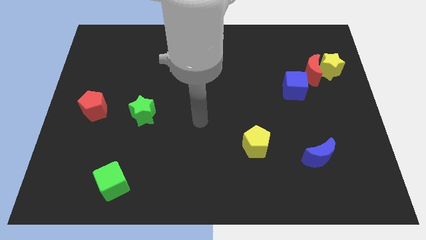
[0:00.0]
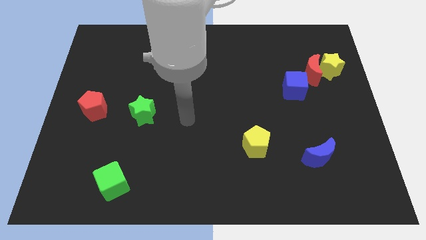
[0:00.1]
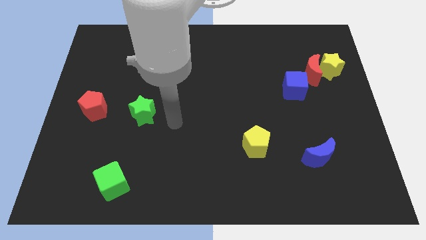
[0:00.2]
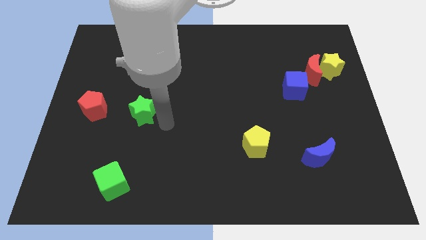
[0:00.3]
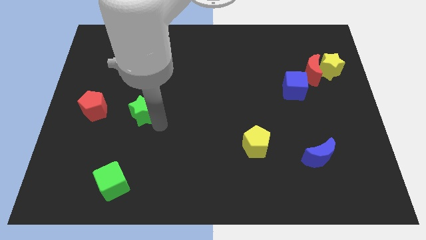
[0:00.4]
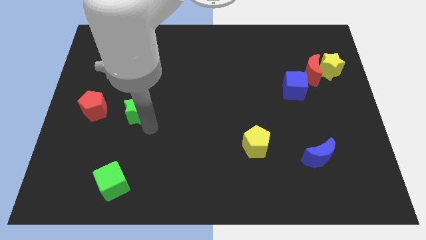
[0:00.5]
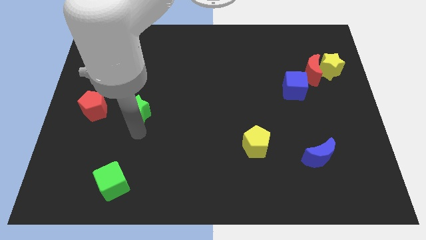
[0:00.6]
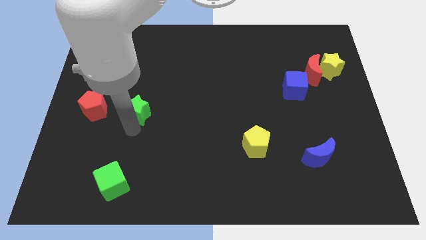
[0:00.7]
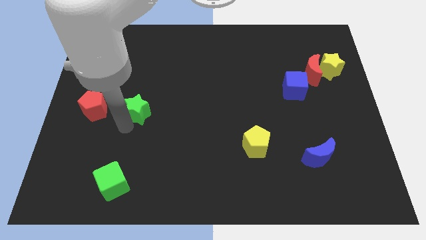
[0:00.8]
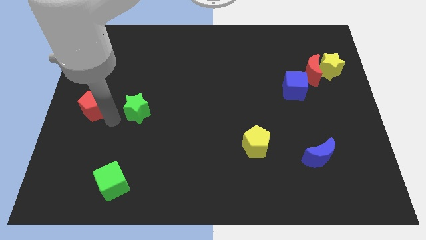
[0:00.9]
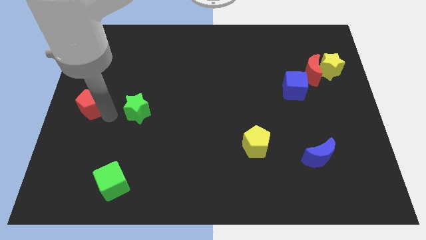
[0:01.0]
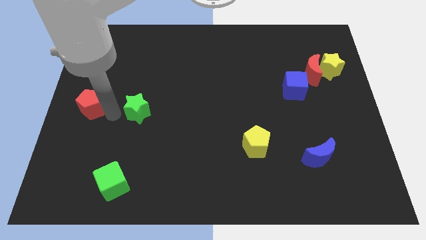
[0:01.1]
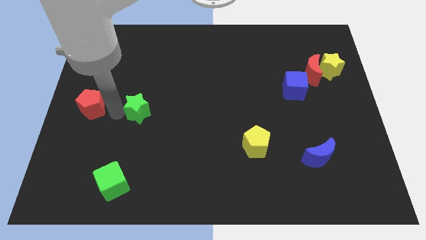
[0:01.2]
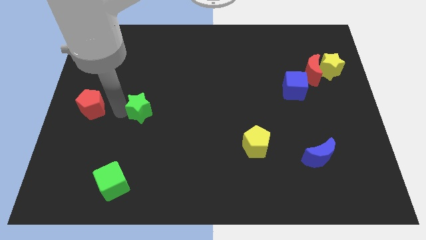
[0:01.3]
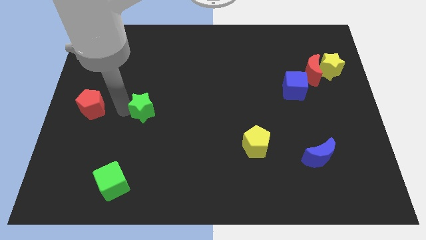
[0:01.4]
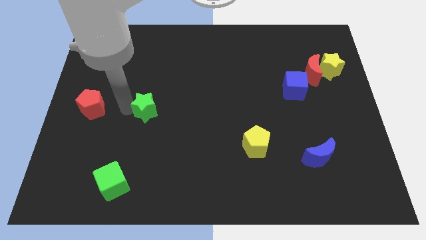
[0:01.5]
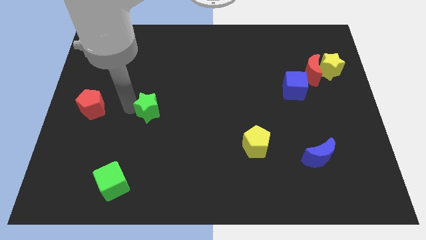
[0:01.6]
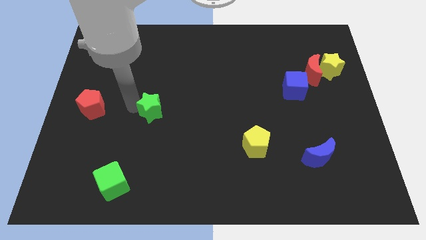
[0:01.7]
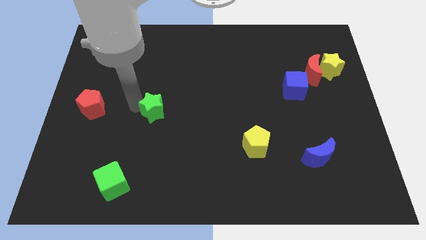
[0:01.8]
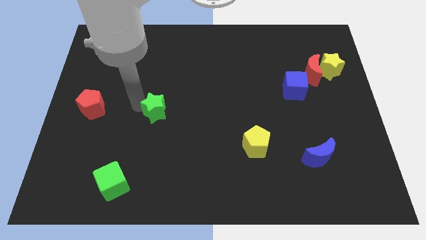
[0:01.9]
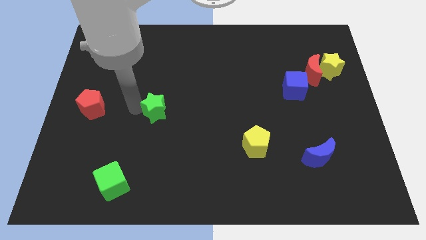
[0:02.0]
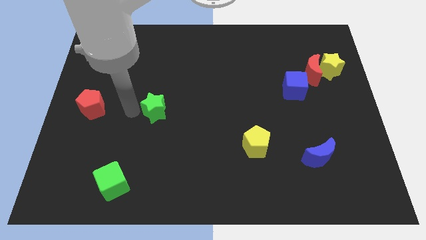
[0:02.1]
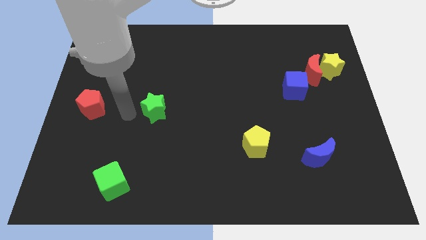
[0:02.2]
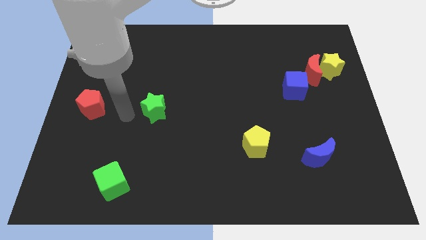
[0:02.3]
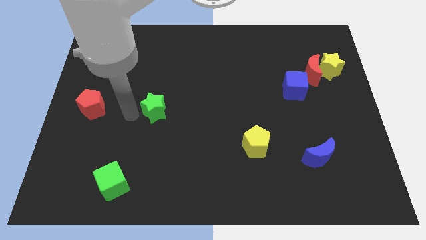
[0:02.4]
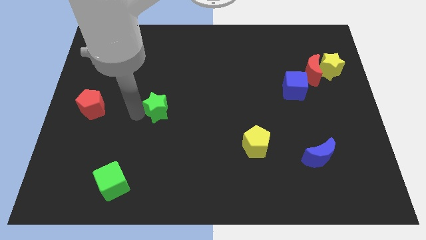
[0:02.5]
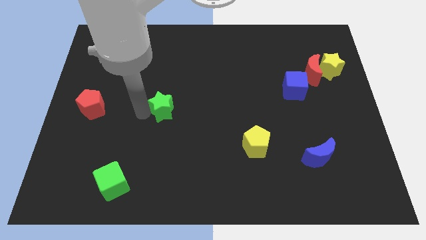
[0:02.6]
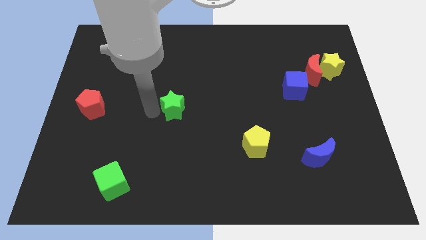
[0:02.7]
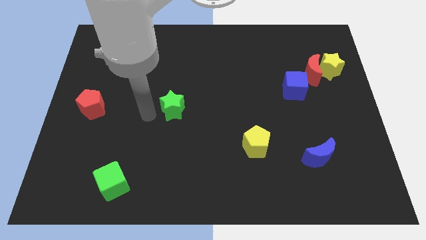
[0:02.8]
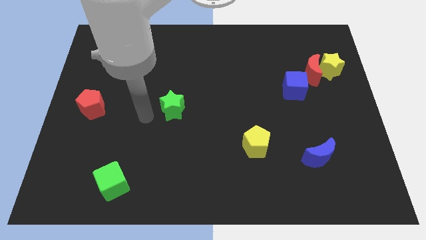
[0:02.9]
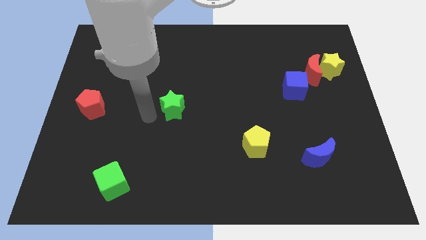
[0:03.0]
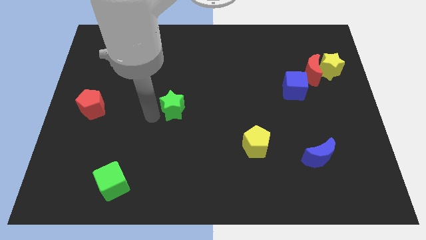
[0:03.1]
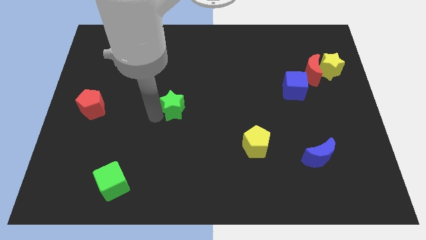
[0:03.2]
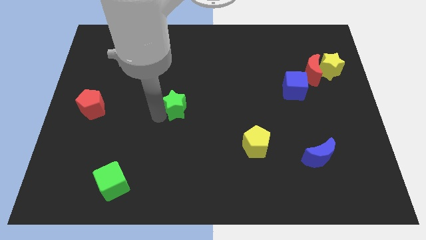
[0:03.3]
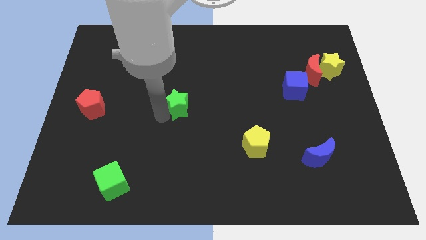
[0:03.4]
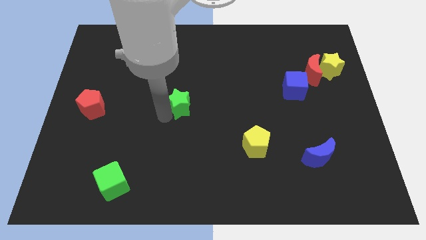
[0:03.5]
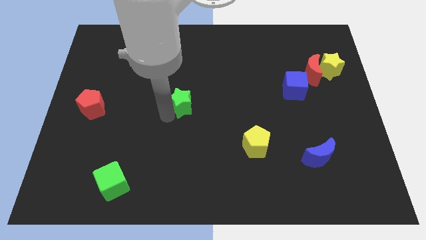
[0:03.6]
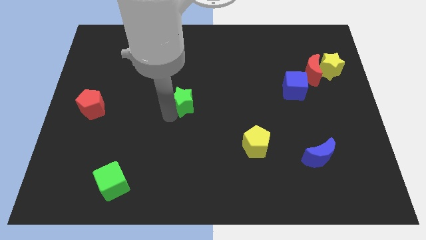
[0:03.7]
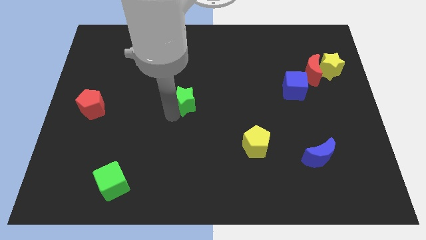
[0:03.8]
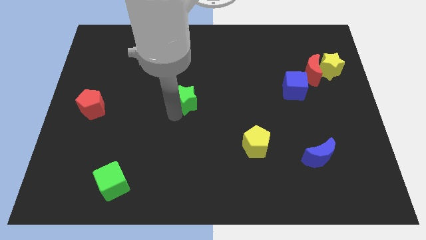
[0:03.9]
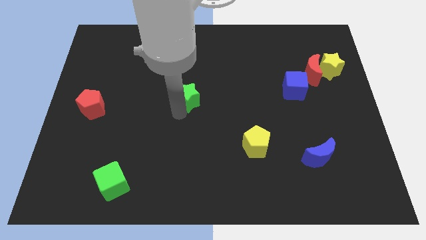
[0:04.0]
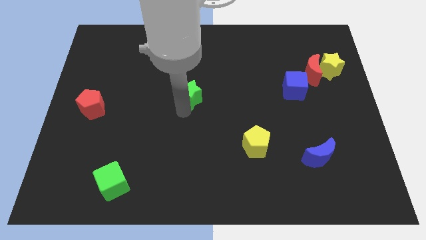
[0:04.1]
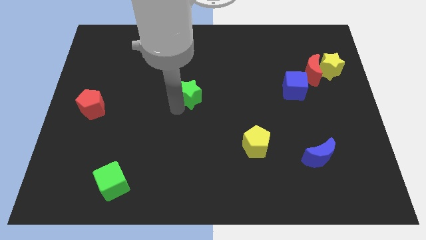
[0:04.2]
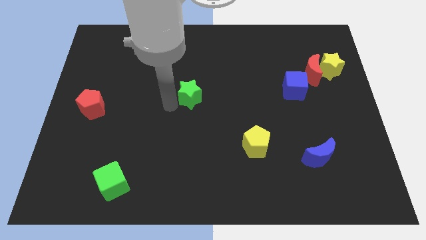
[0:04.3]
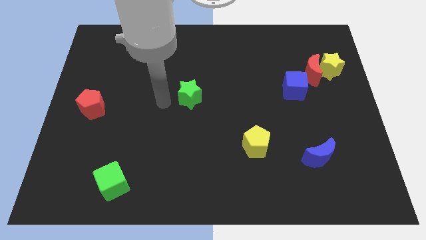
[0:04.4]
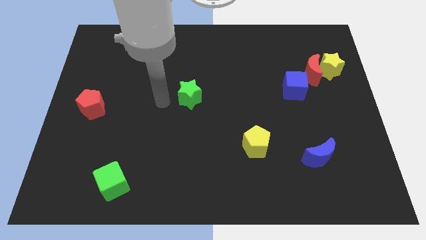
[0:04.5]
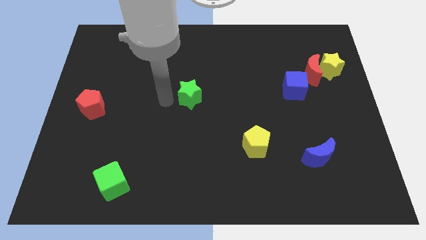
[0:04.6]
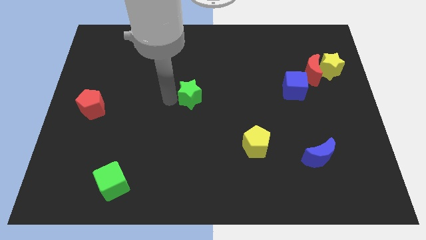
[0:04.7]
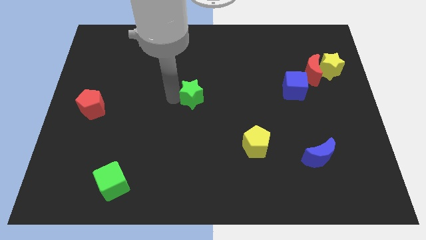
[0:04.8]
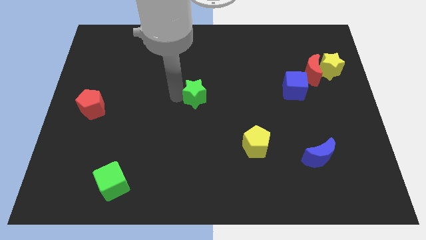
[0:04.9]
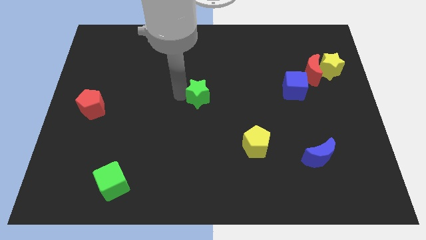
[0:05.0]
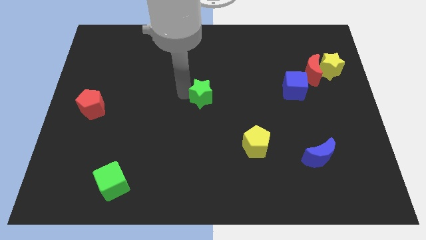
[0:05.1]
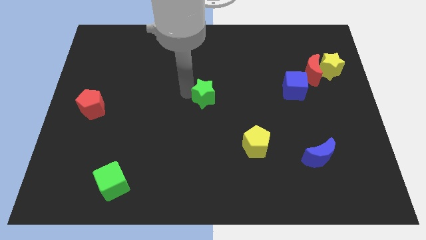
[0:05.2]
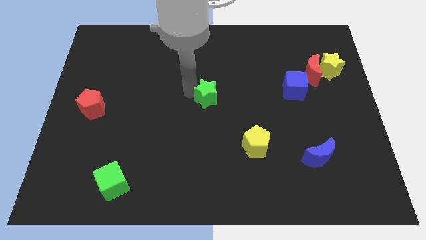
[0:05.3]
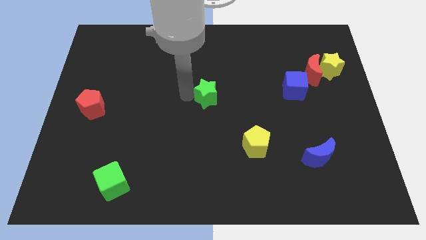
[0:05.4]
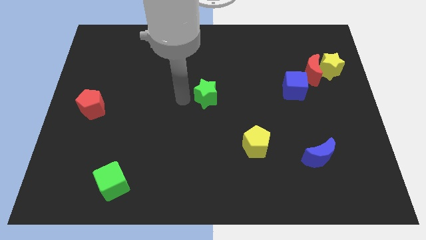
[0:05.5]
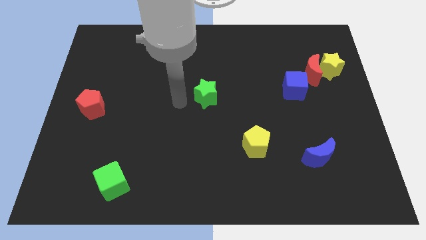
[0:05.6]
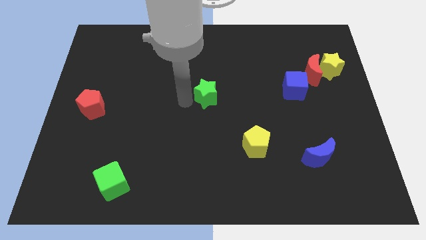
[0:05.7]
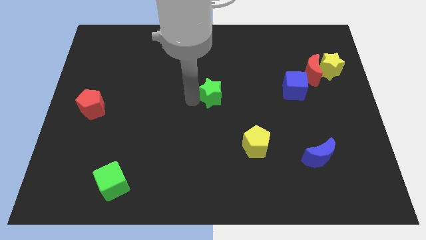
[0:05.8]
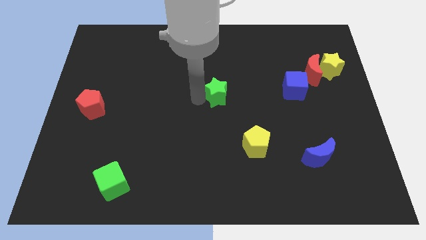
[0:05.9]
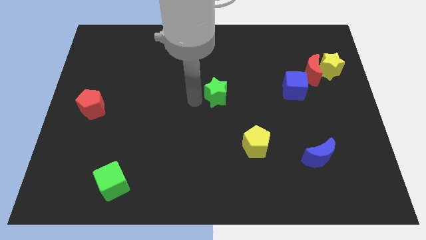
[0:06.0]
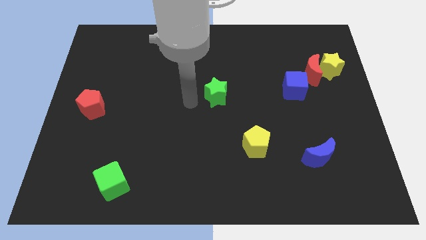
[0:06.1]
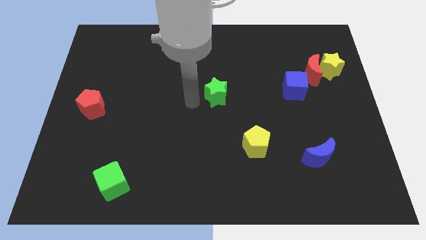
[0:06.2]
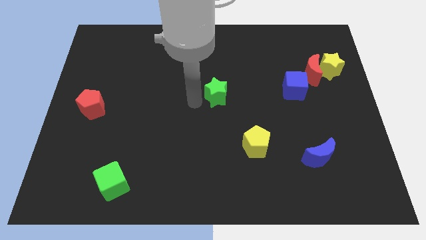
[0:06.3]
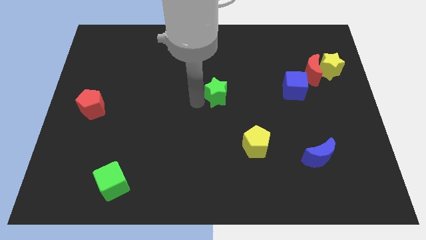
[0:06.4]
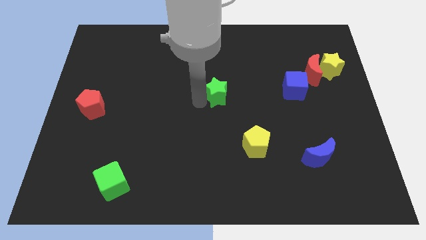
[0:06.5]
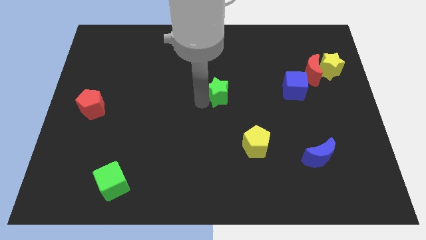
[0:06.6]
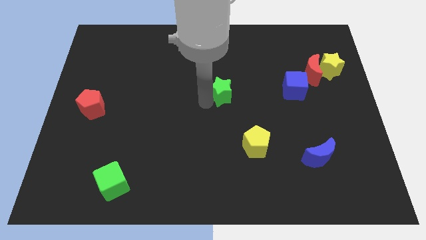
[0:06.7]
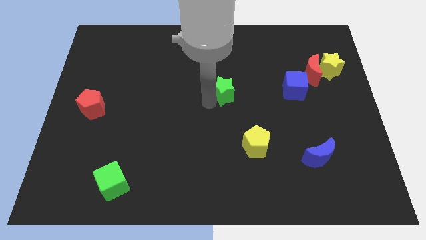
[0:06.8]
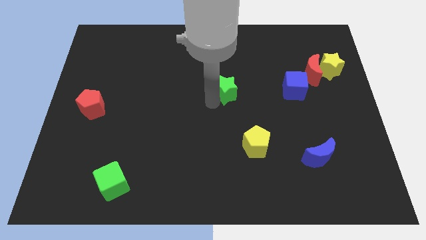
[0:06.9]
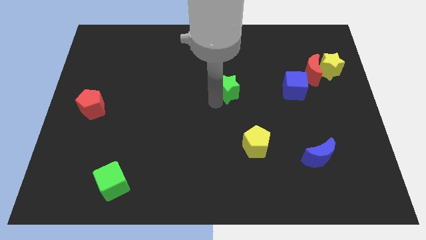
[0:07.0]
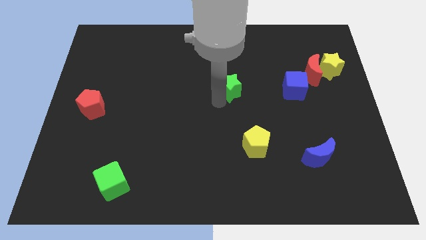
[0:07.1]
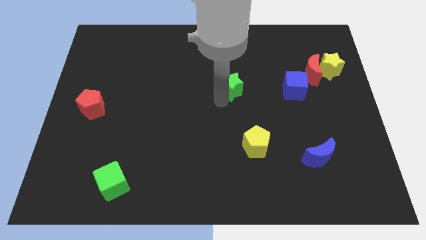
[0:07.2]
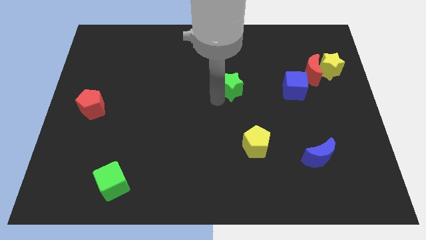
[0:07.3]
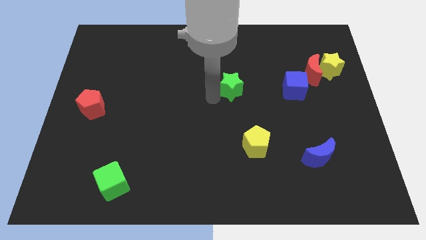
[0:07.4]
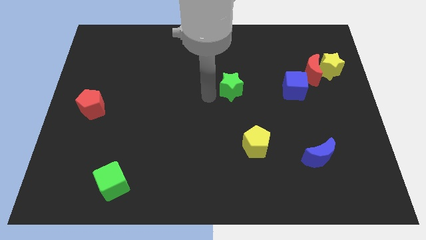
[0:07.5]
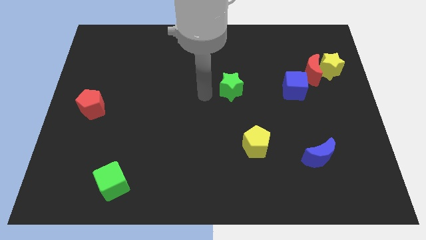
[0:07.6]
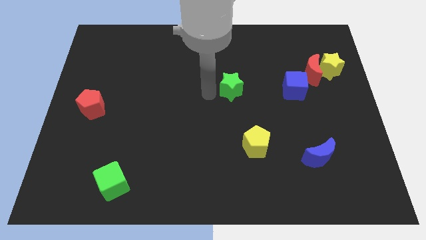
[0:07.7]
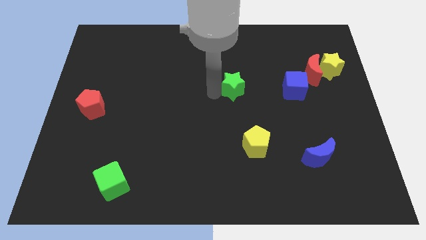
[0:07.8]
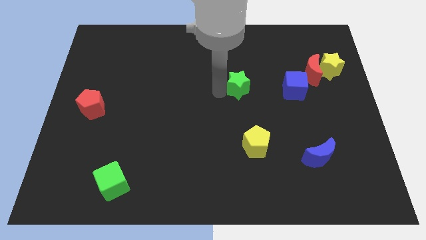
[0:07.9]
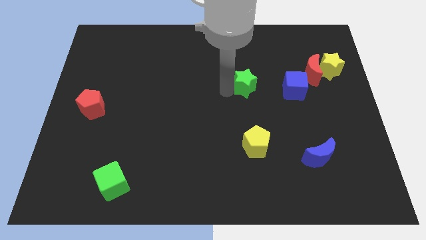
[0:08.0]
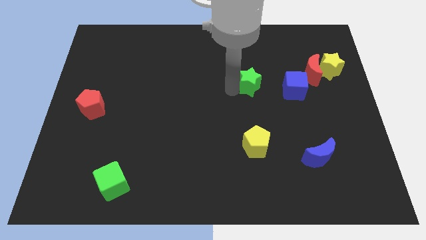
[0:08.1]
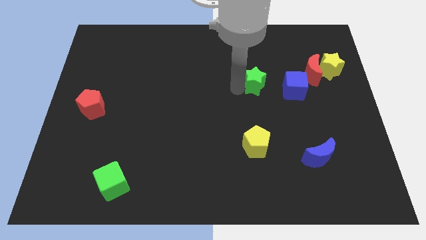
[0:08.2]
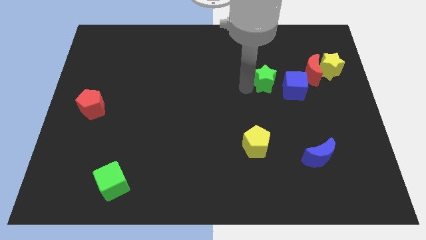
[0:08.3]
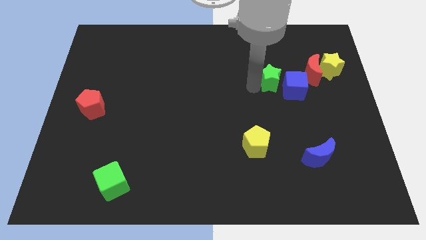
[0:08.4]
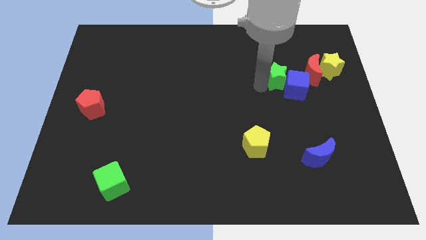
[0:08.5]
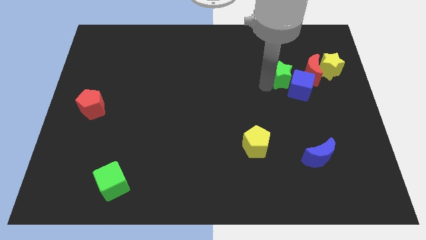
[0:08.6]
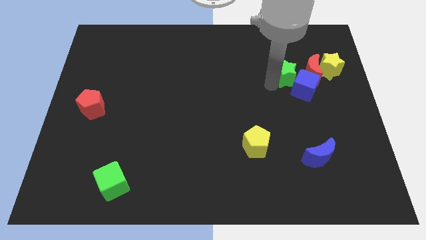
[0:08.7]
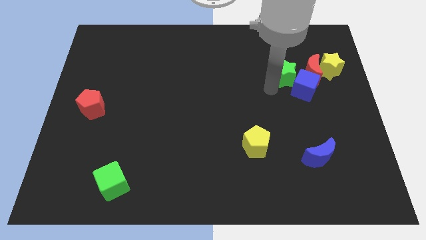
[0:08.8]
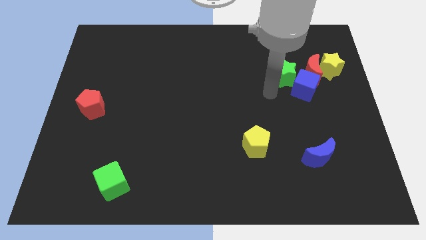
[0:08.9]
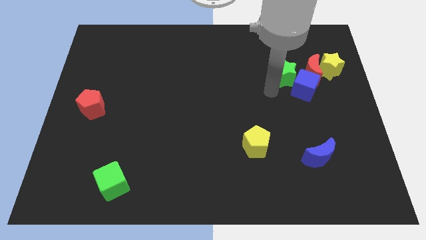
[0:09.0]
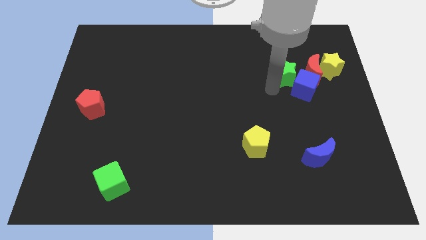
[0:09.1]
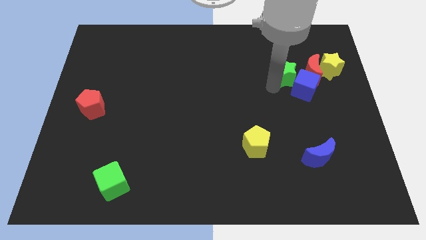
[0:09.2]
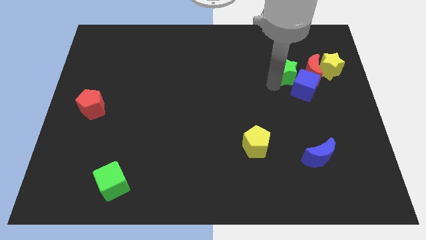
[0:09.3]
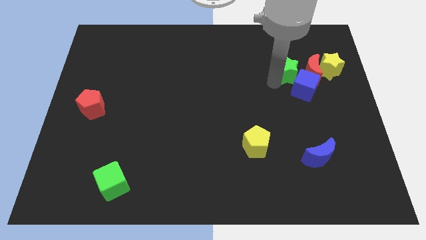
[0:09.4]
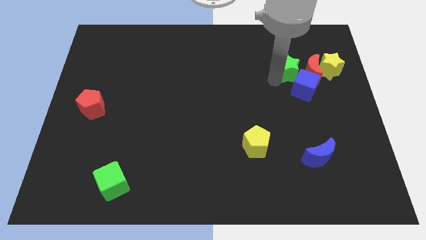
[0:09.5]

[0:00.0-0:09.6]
slide the green star to the red moon
